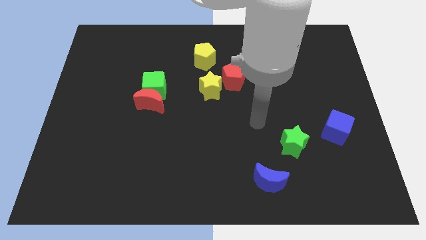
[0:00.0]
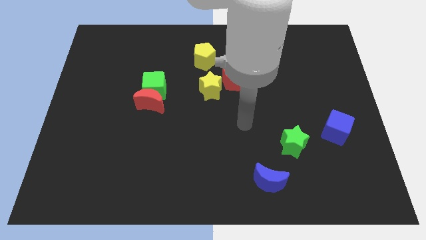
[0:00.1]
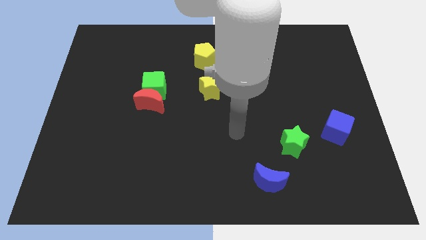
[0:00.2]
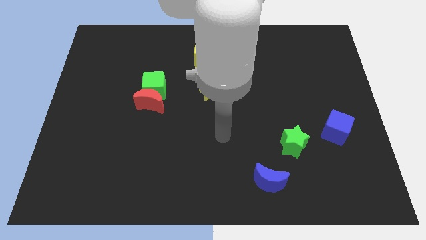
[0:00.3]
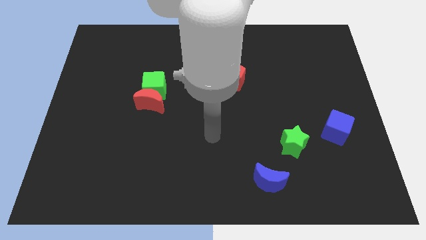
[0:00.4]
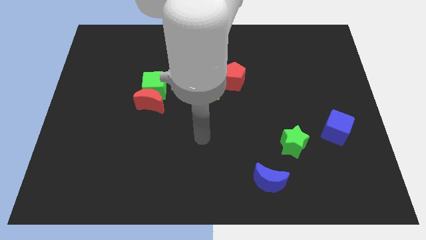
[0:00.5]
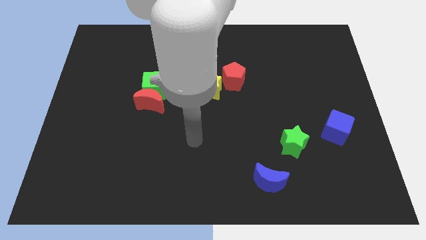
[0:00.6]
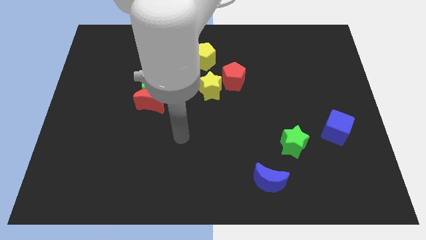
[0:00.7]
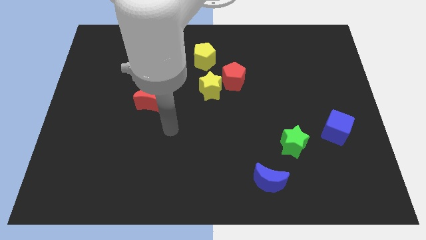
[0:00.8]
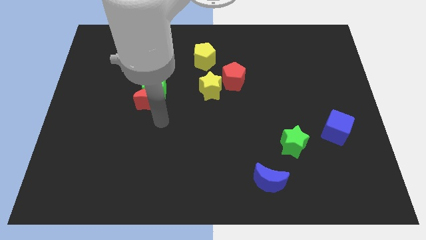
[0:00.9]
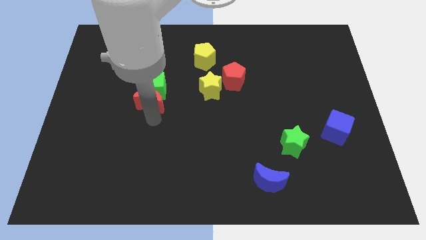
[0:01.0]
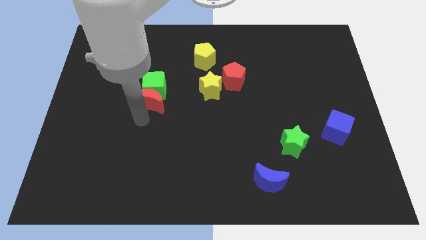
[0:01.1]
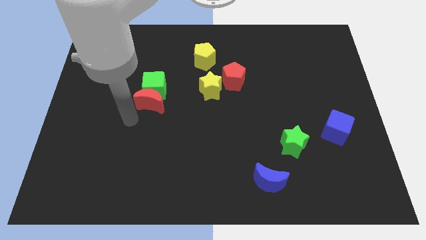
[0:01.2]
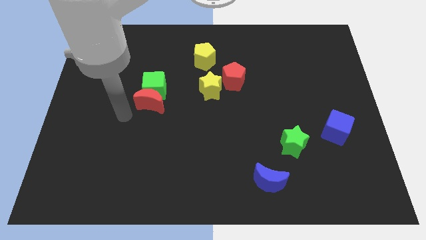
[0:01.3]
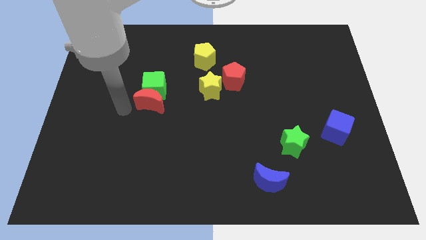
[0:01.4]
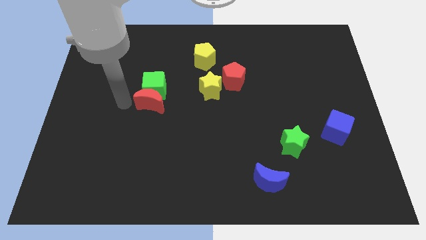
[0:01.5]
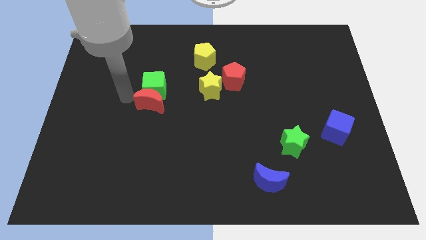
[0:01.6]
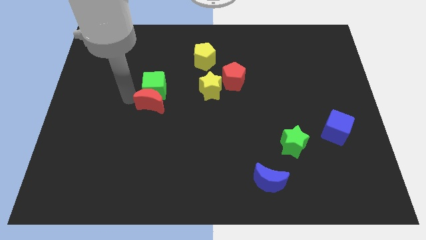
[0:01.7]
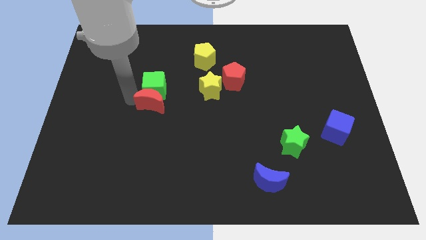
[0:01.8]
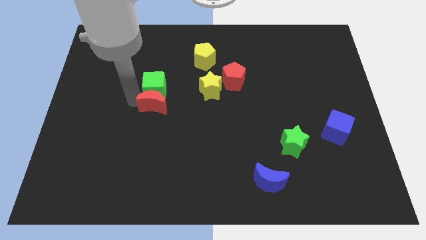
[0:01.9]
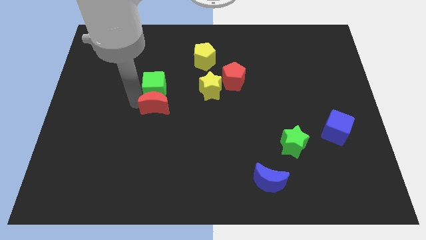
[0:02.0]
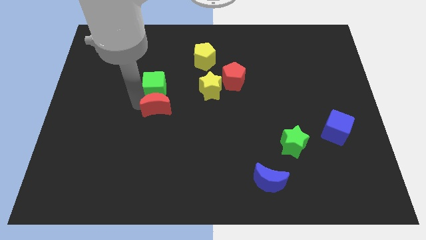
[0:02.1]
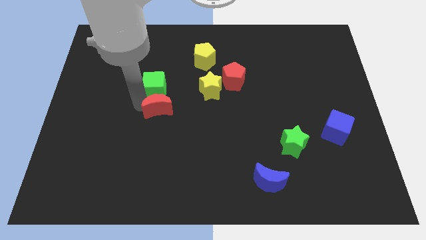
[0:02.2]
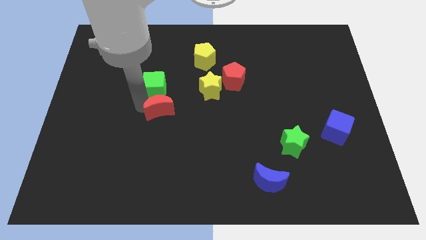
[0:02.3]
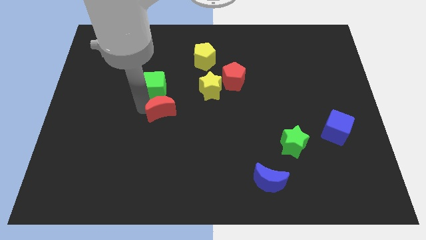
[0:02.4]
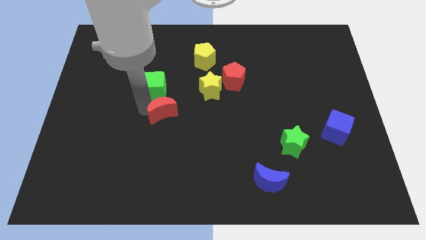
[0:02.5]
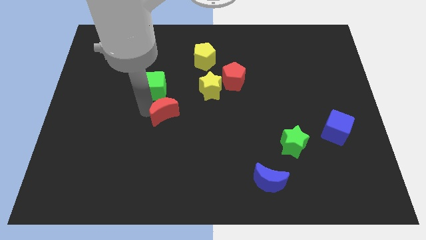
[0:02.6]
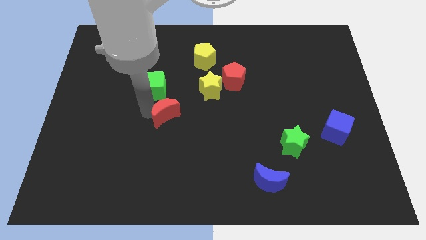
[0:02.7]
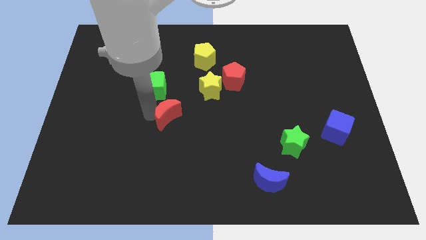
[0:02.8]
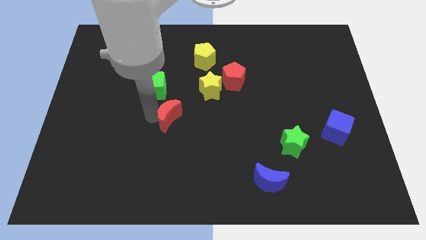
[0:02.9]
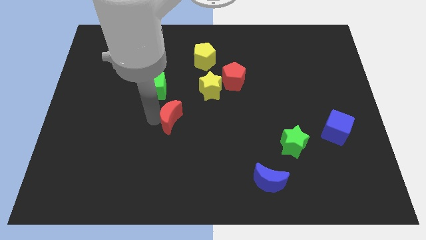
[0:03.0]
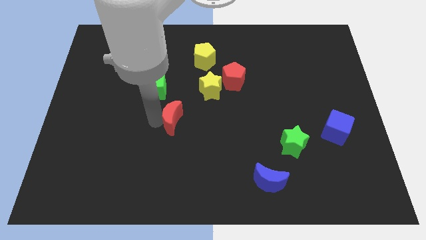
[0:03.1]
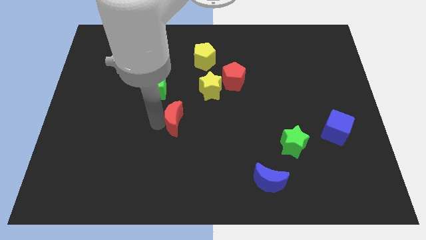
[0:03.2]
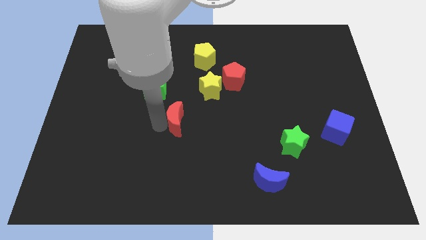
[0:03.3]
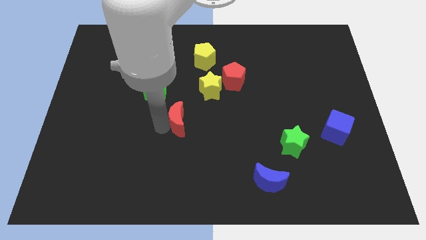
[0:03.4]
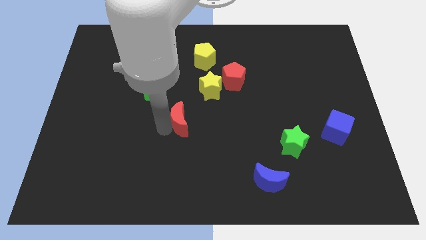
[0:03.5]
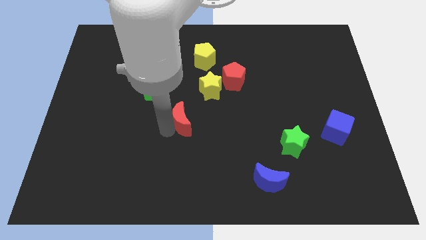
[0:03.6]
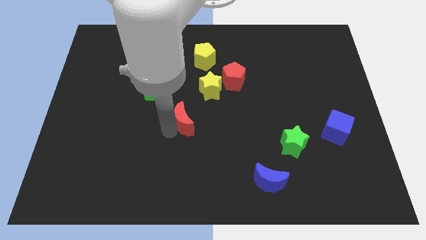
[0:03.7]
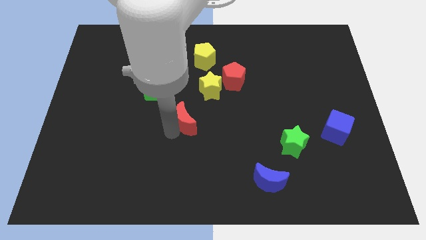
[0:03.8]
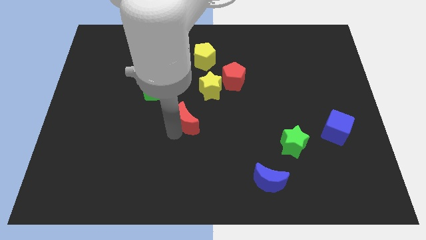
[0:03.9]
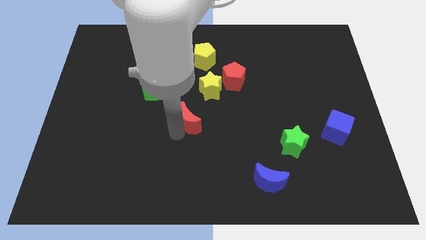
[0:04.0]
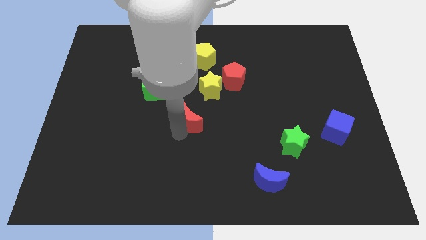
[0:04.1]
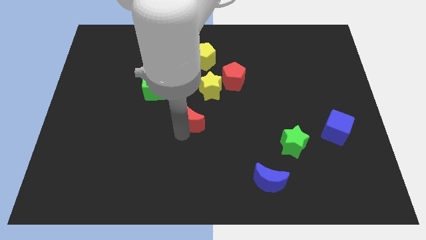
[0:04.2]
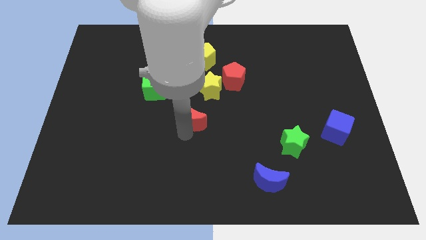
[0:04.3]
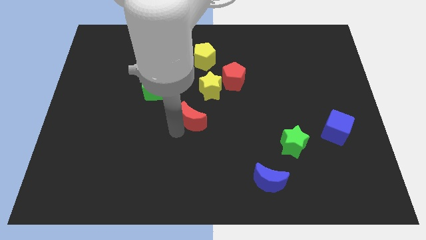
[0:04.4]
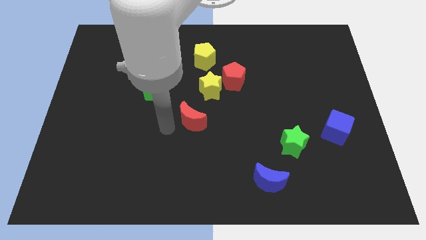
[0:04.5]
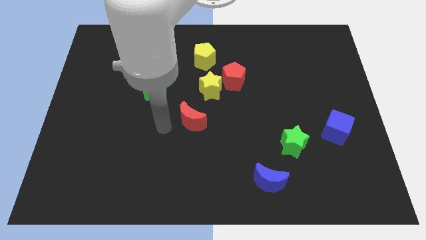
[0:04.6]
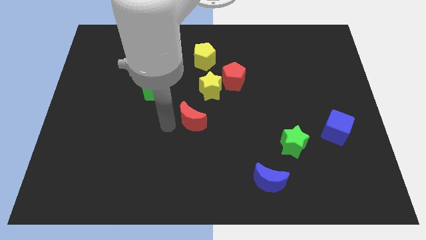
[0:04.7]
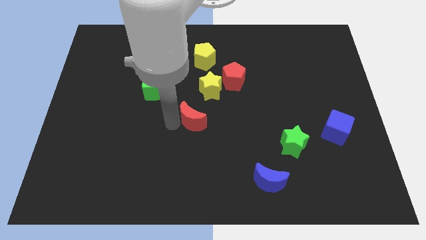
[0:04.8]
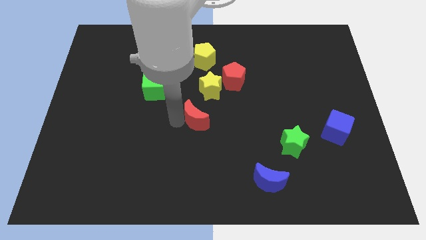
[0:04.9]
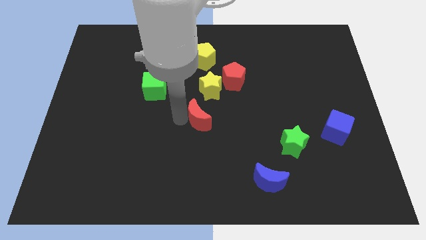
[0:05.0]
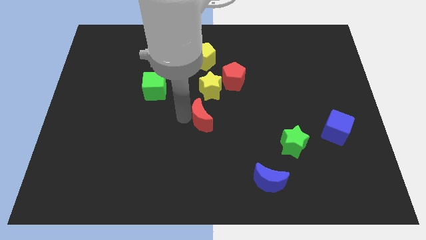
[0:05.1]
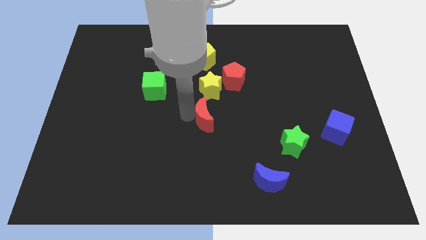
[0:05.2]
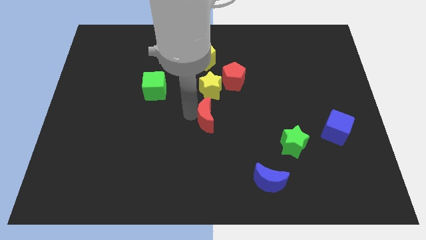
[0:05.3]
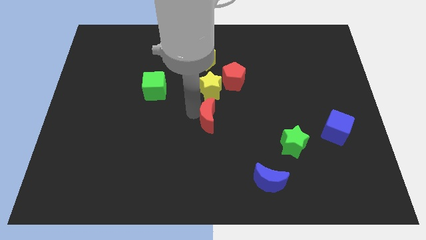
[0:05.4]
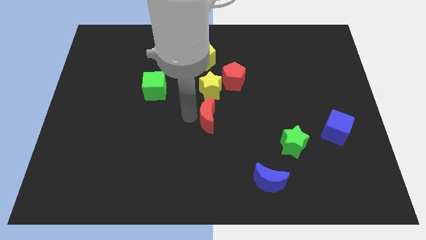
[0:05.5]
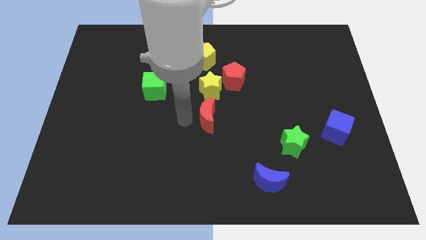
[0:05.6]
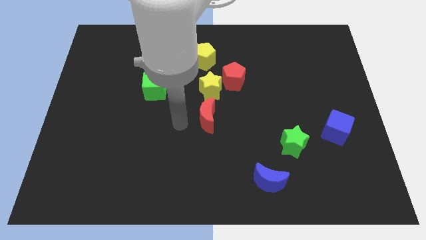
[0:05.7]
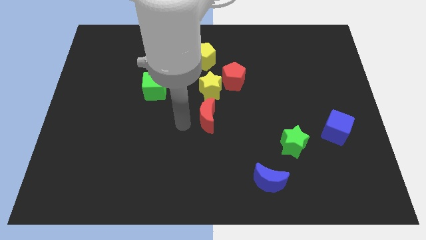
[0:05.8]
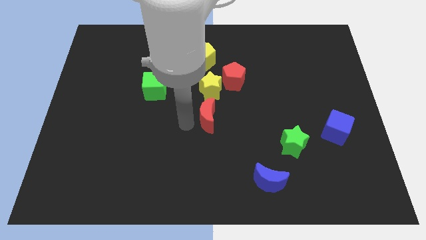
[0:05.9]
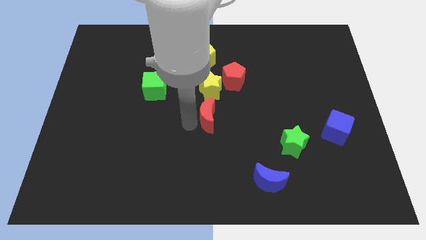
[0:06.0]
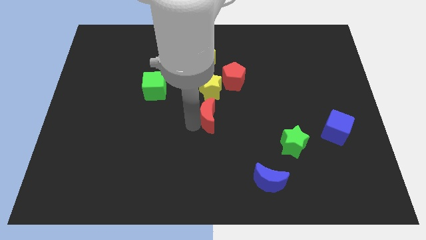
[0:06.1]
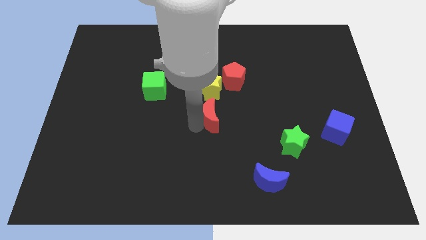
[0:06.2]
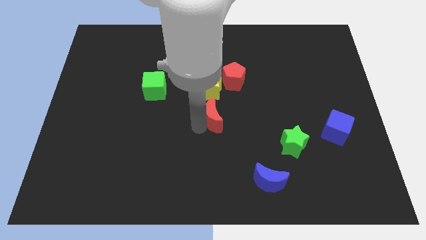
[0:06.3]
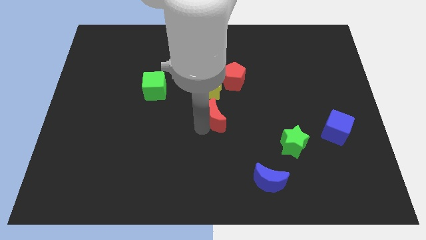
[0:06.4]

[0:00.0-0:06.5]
push the red moon to the bottom of the red pentagon

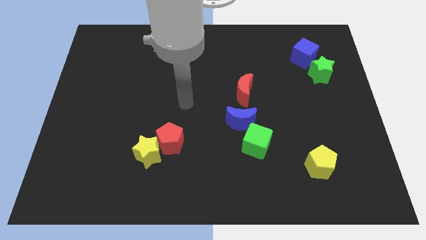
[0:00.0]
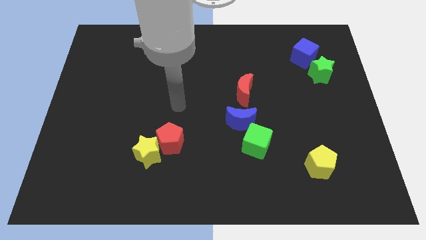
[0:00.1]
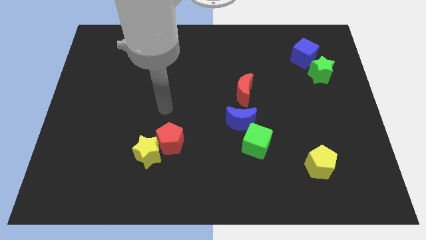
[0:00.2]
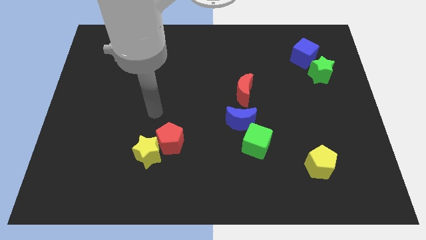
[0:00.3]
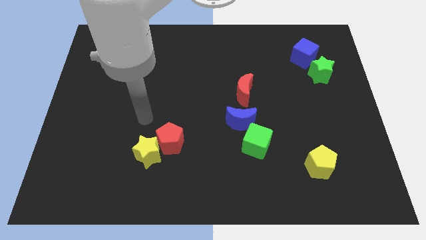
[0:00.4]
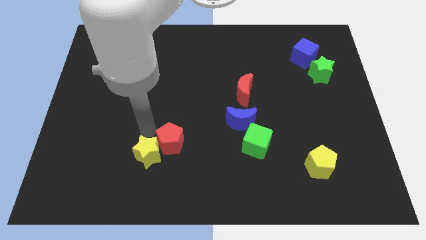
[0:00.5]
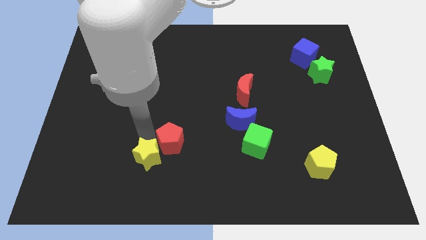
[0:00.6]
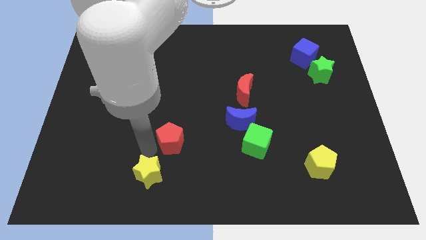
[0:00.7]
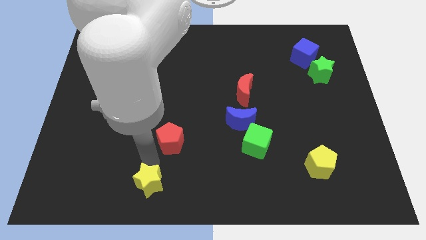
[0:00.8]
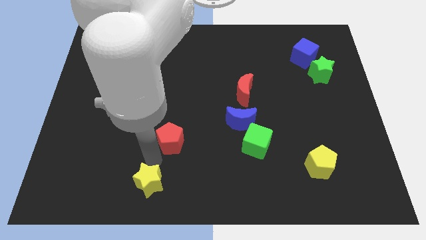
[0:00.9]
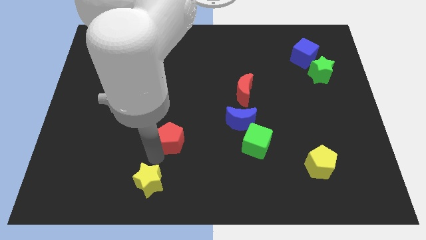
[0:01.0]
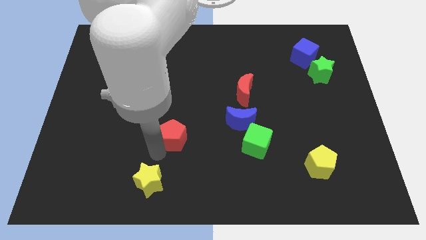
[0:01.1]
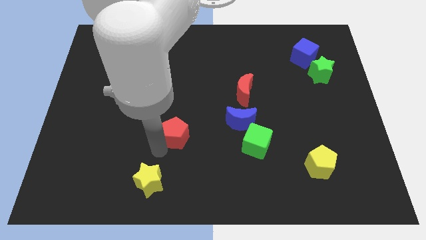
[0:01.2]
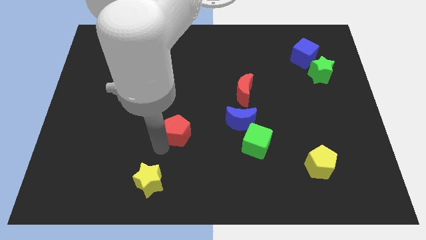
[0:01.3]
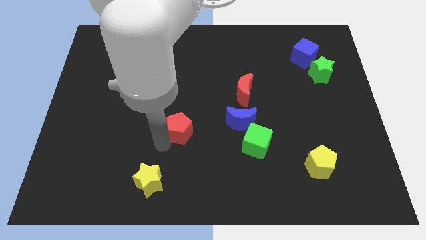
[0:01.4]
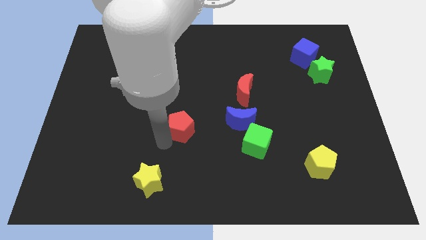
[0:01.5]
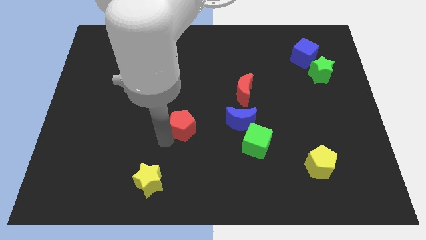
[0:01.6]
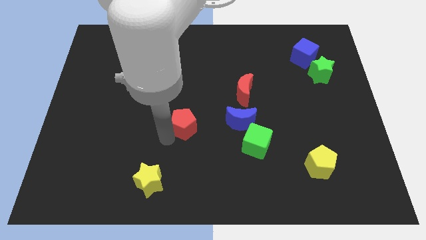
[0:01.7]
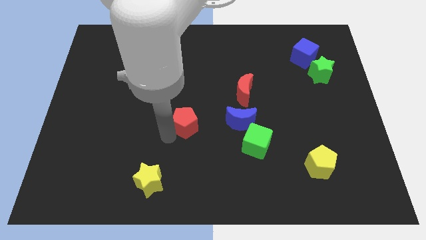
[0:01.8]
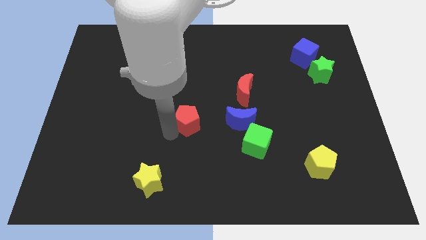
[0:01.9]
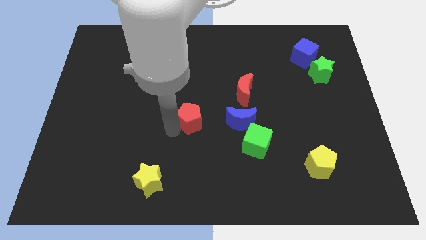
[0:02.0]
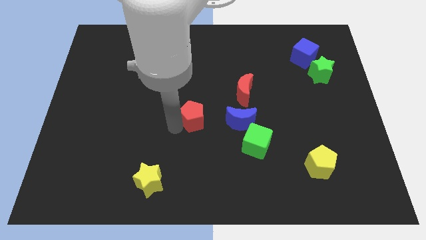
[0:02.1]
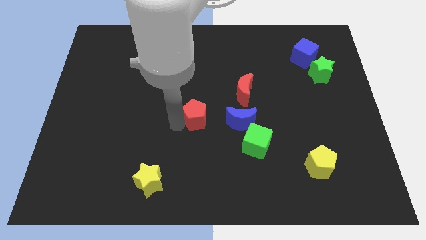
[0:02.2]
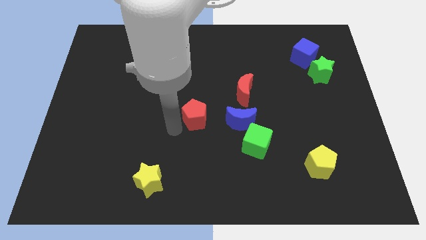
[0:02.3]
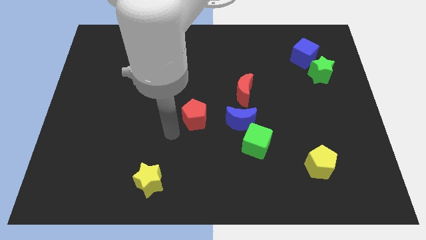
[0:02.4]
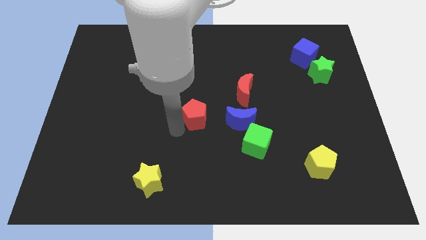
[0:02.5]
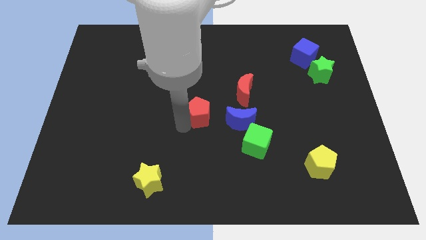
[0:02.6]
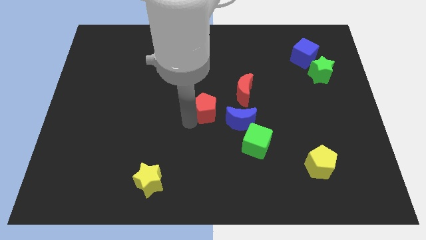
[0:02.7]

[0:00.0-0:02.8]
move the red pentagon to the top left of the blue moon
